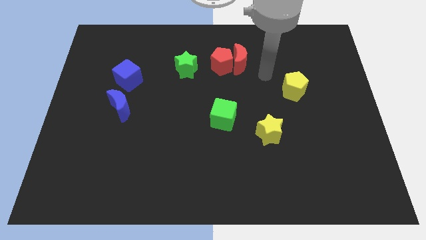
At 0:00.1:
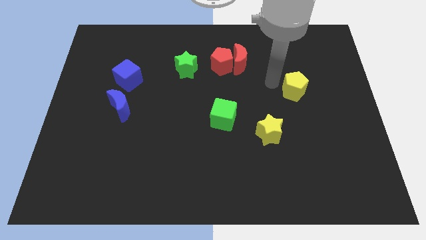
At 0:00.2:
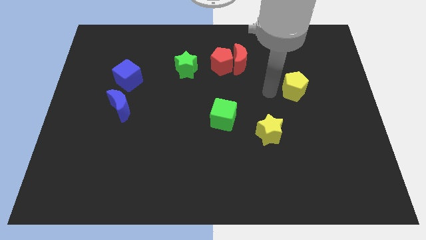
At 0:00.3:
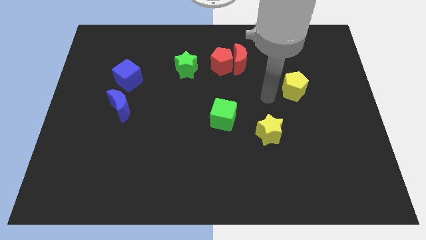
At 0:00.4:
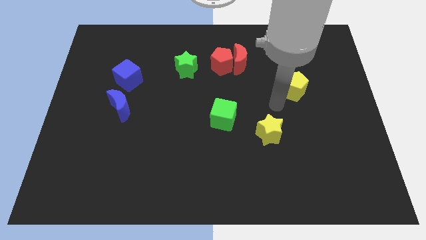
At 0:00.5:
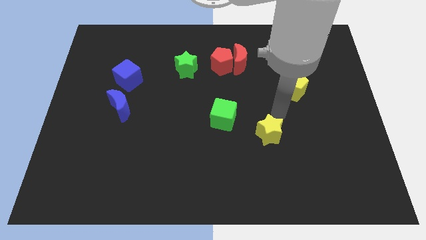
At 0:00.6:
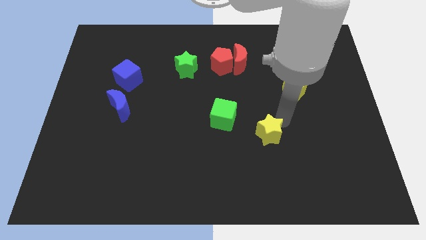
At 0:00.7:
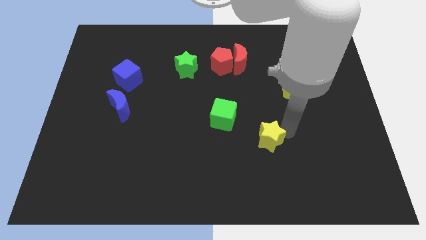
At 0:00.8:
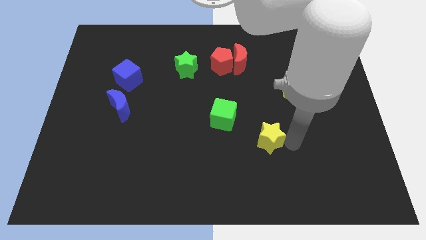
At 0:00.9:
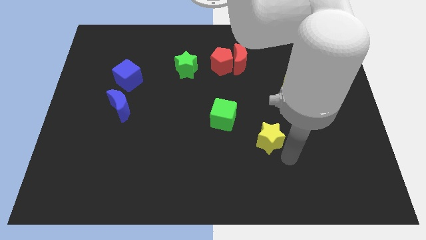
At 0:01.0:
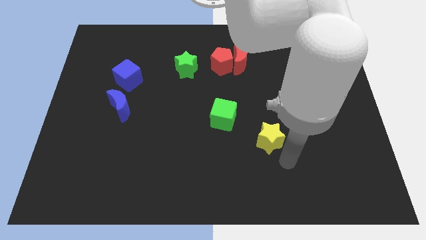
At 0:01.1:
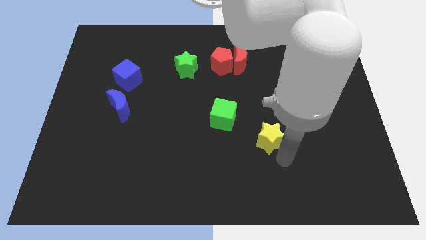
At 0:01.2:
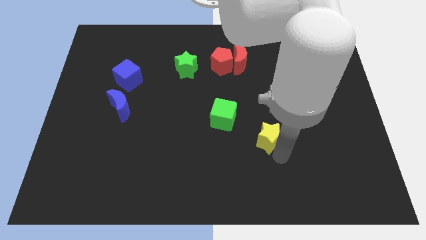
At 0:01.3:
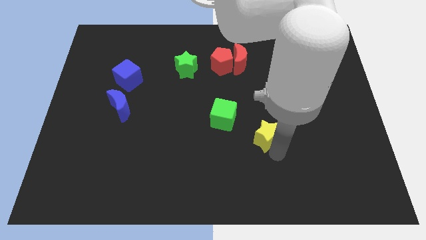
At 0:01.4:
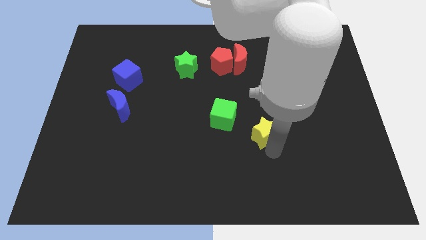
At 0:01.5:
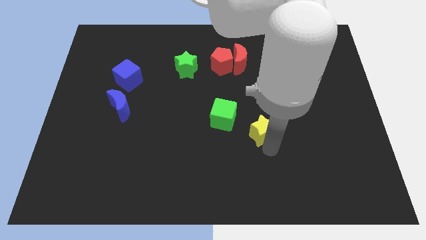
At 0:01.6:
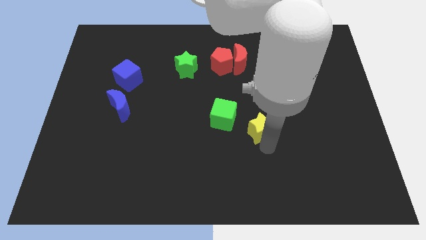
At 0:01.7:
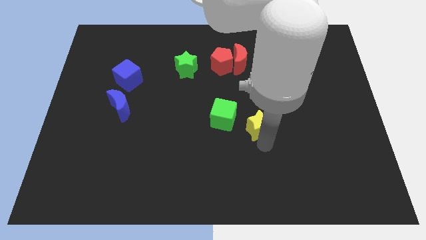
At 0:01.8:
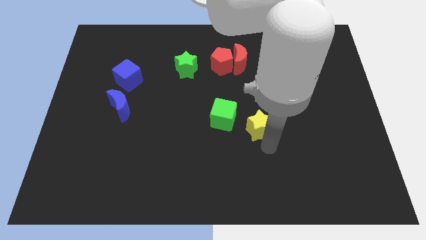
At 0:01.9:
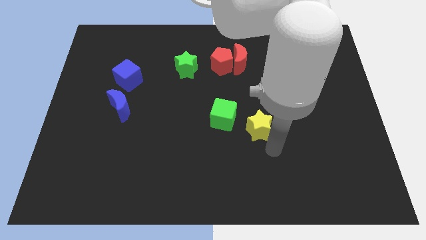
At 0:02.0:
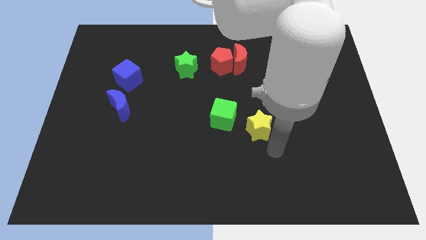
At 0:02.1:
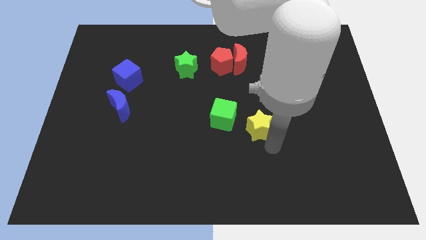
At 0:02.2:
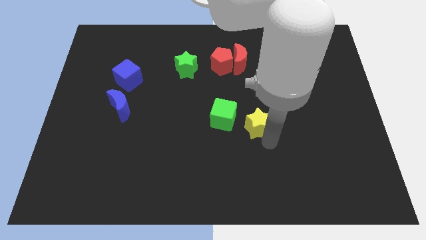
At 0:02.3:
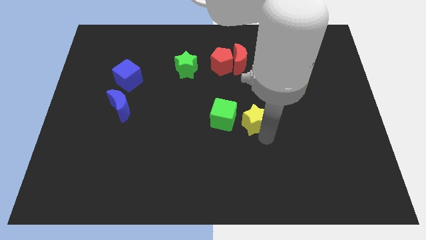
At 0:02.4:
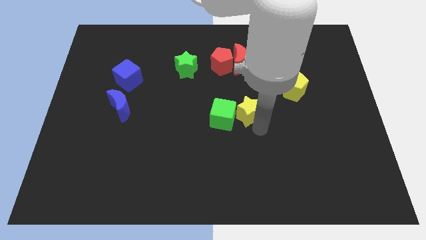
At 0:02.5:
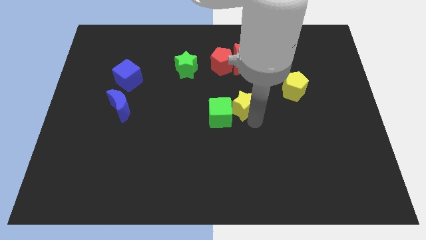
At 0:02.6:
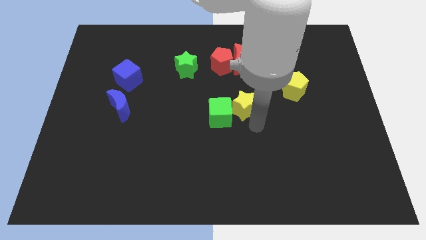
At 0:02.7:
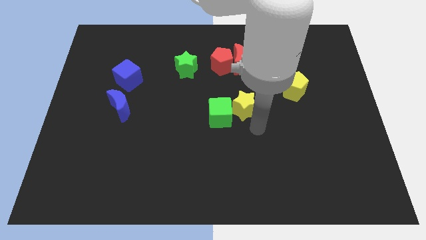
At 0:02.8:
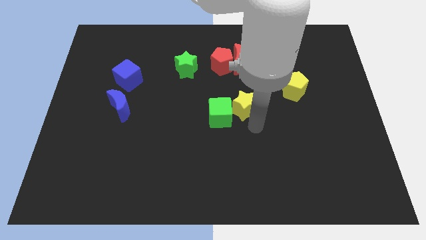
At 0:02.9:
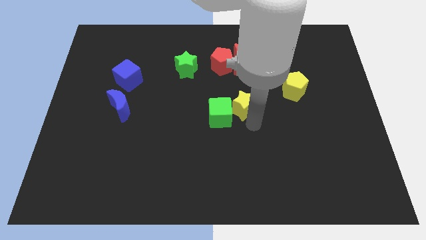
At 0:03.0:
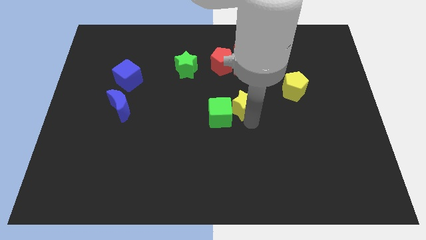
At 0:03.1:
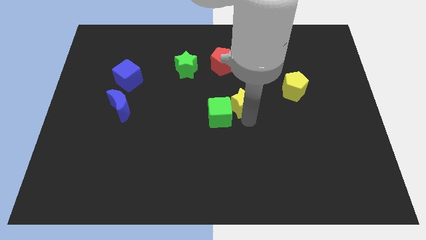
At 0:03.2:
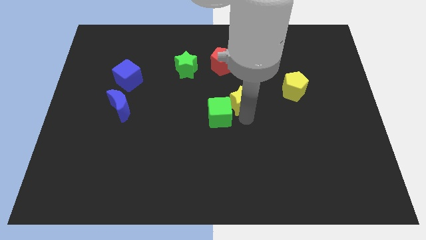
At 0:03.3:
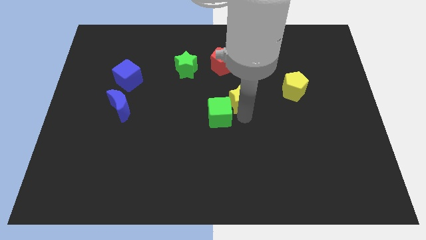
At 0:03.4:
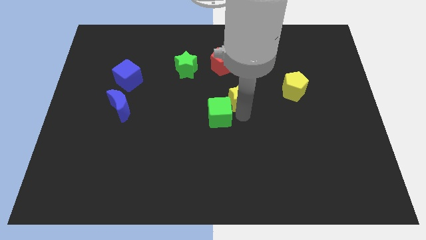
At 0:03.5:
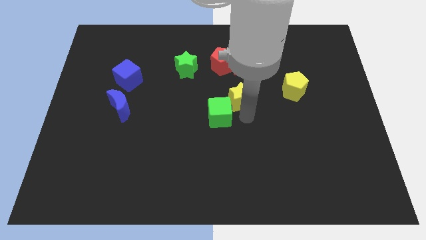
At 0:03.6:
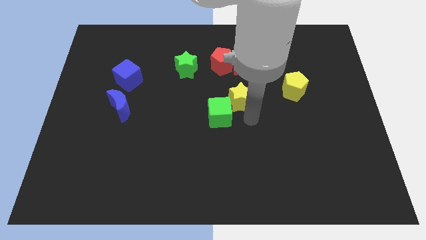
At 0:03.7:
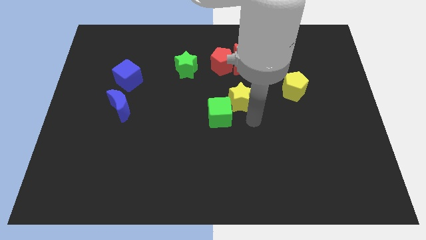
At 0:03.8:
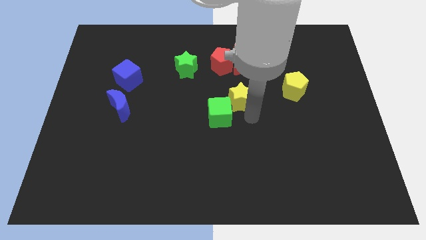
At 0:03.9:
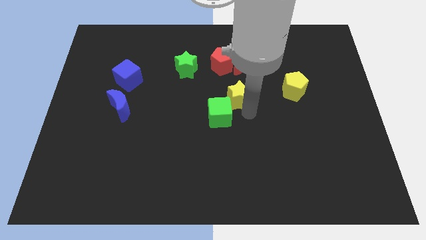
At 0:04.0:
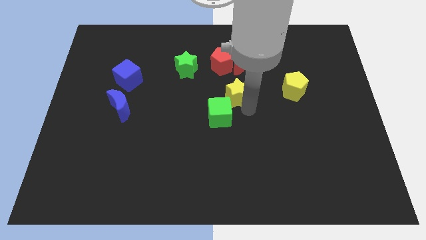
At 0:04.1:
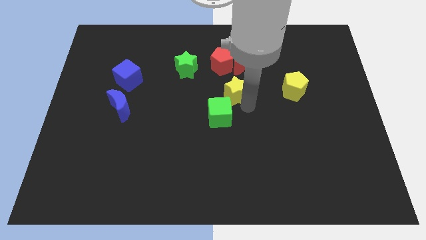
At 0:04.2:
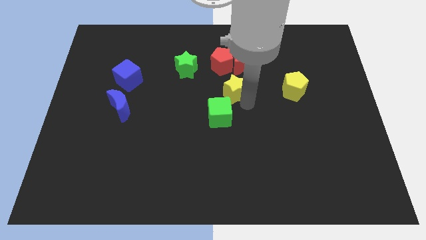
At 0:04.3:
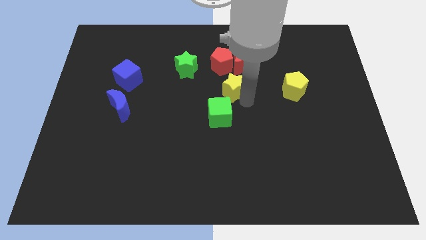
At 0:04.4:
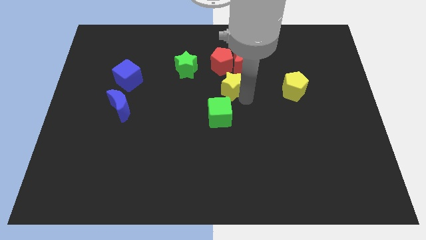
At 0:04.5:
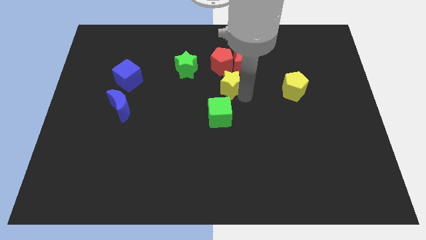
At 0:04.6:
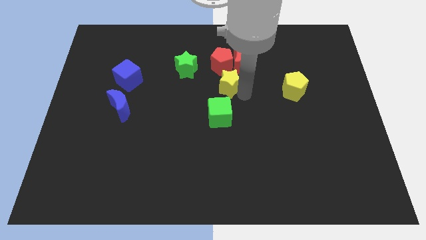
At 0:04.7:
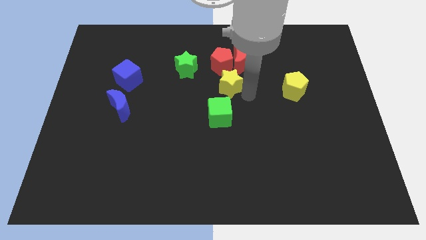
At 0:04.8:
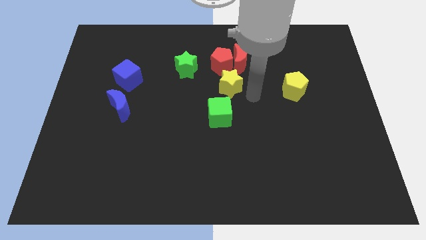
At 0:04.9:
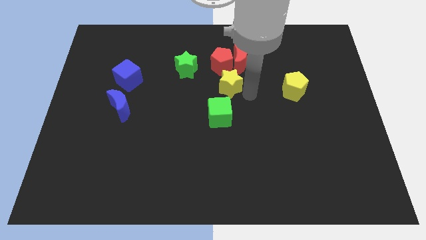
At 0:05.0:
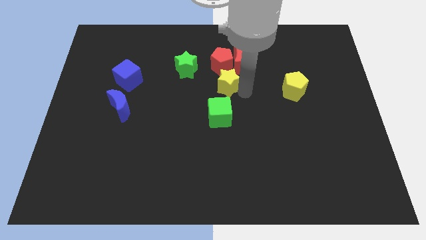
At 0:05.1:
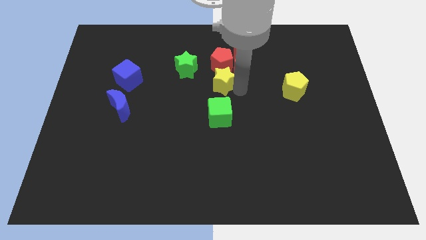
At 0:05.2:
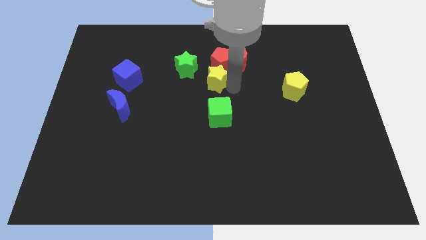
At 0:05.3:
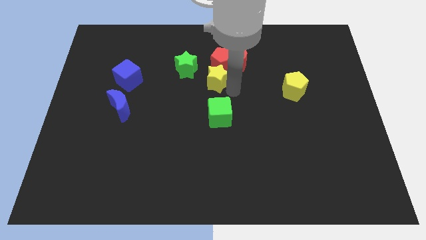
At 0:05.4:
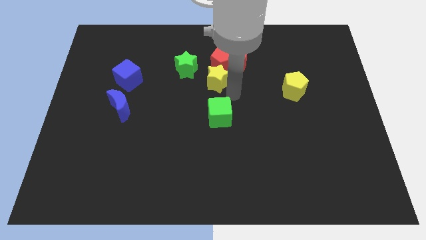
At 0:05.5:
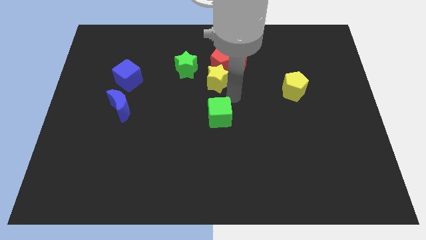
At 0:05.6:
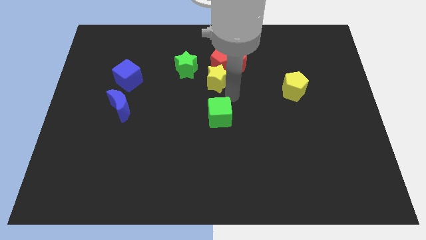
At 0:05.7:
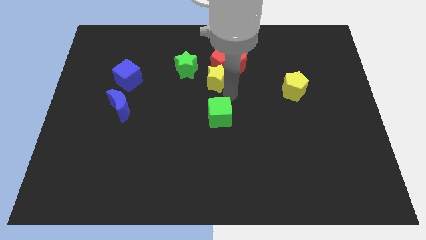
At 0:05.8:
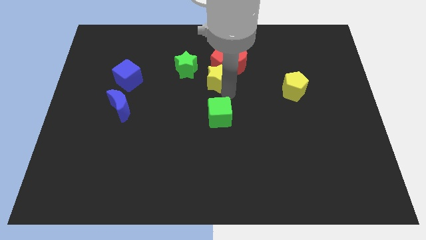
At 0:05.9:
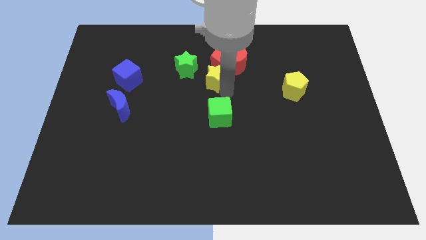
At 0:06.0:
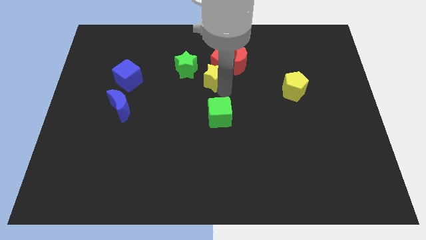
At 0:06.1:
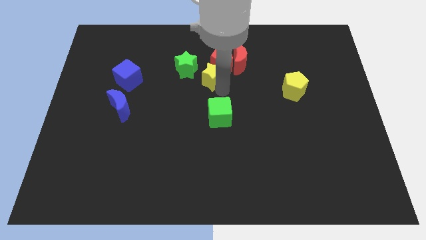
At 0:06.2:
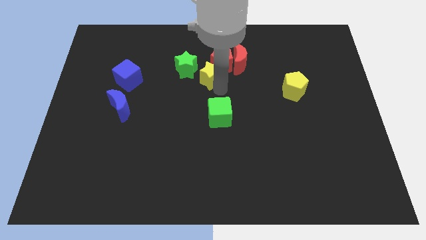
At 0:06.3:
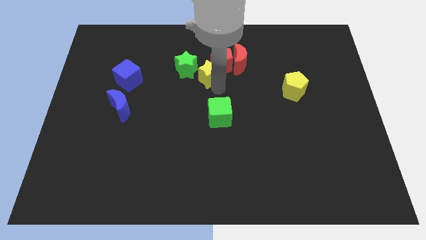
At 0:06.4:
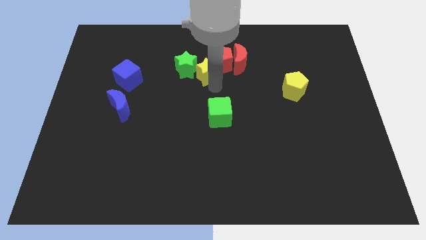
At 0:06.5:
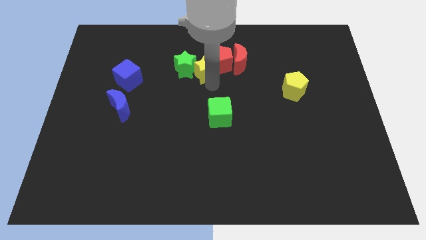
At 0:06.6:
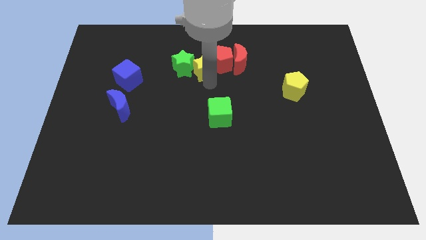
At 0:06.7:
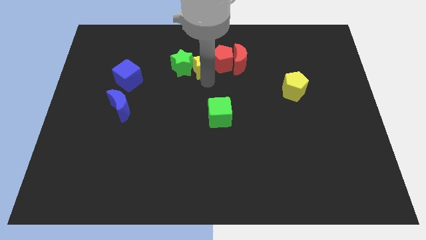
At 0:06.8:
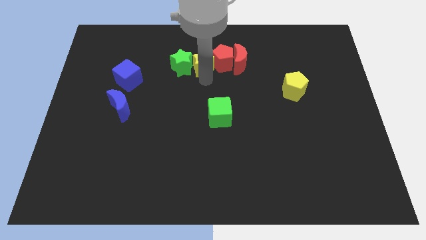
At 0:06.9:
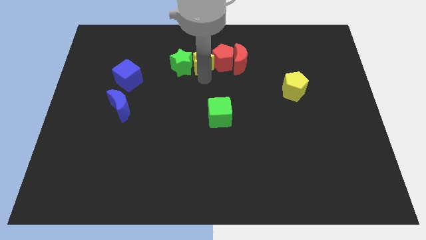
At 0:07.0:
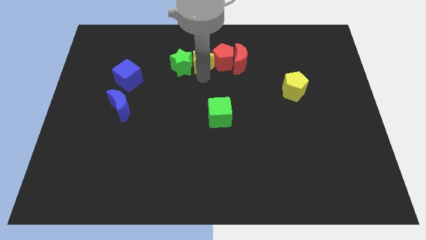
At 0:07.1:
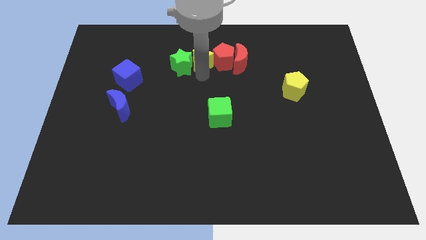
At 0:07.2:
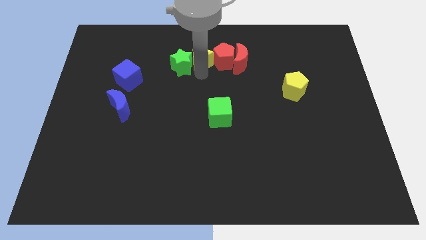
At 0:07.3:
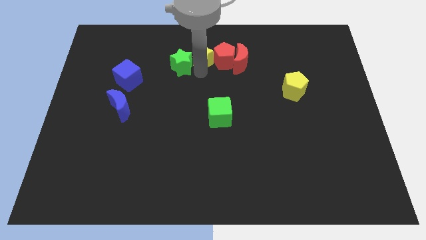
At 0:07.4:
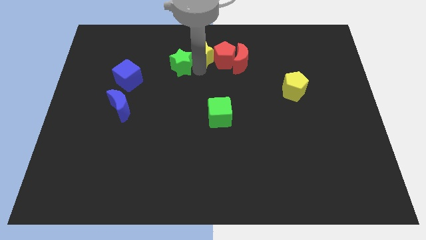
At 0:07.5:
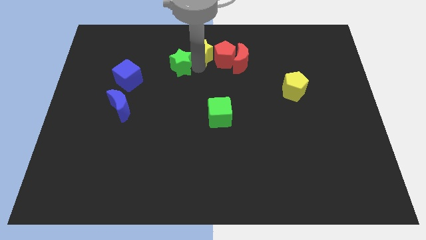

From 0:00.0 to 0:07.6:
push the yellow star to the towards your base
